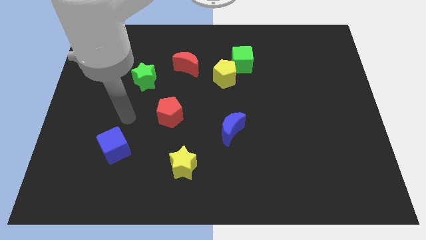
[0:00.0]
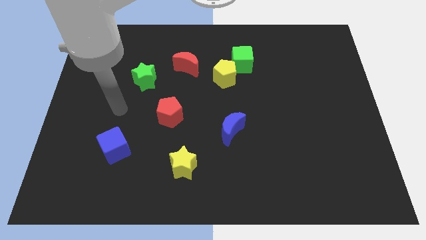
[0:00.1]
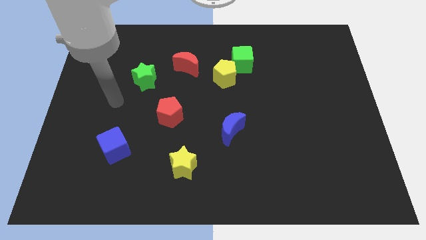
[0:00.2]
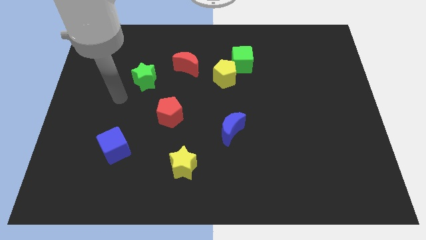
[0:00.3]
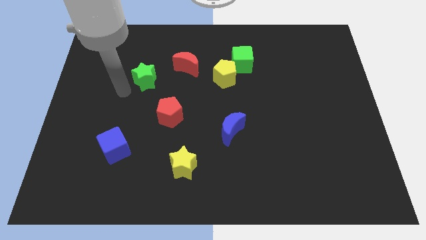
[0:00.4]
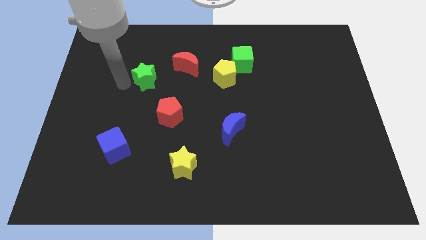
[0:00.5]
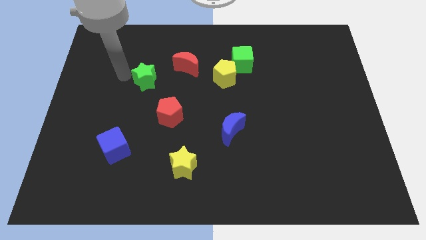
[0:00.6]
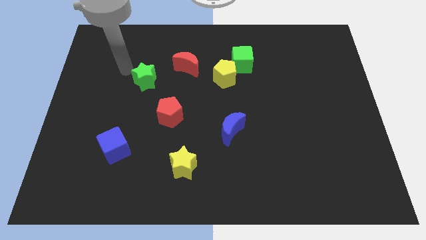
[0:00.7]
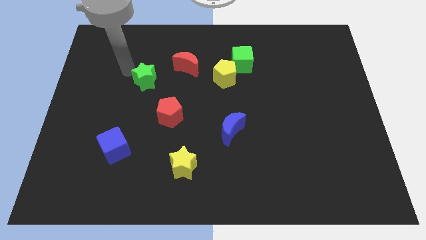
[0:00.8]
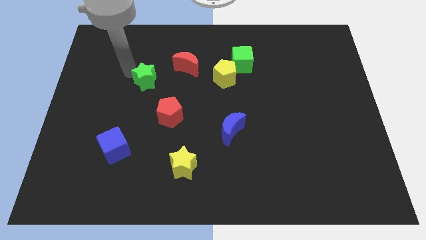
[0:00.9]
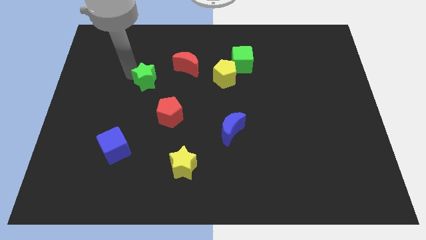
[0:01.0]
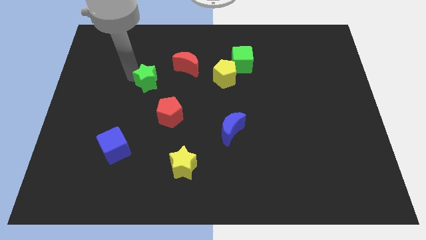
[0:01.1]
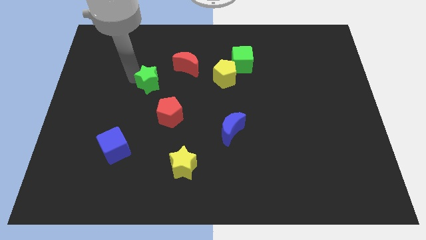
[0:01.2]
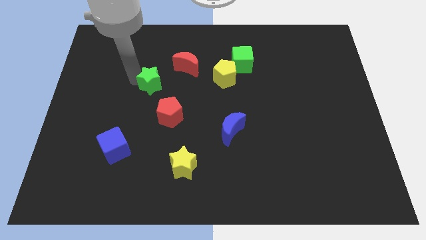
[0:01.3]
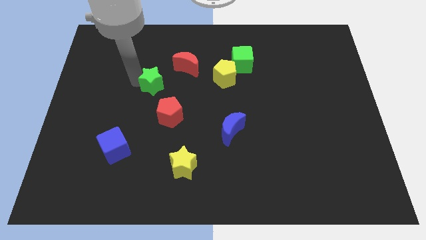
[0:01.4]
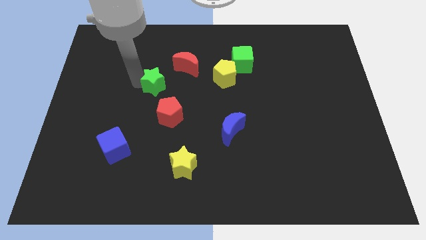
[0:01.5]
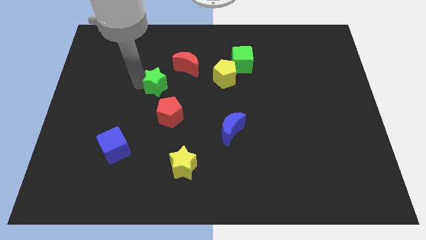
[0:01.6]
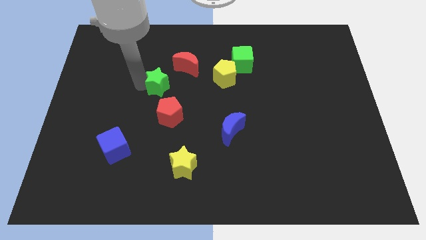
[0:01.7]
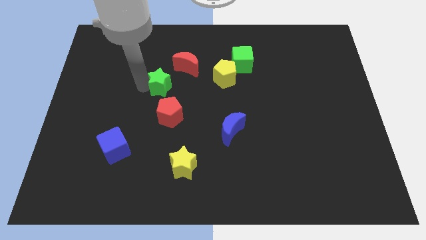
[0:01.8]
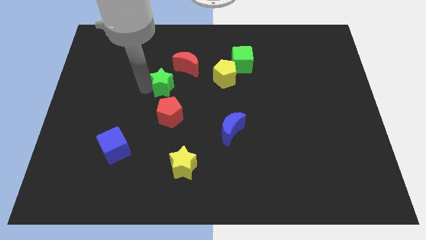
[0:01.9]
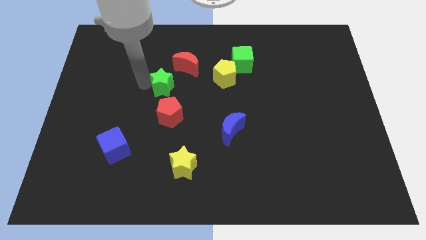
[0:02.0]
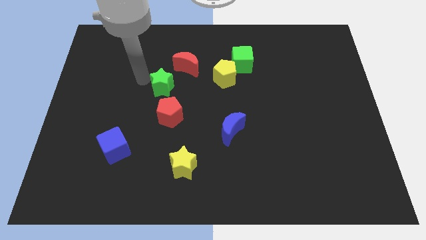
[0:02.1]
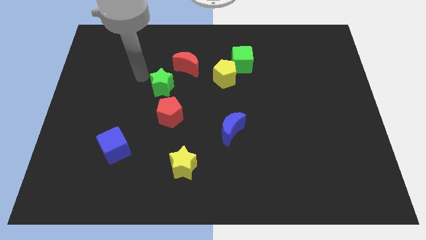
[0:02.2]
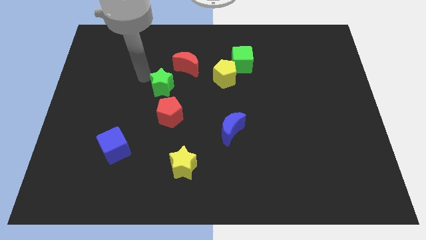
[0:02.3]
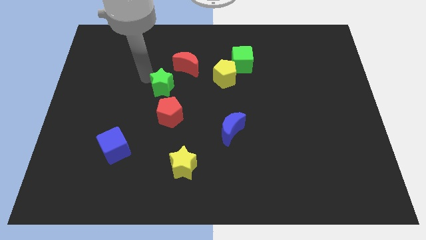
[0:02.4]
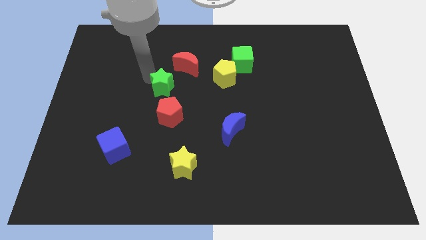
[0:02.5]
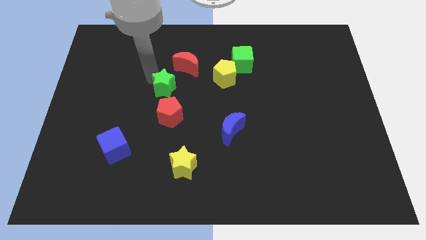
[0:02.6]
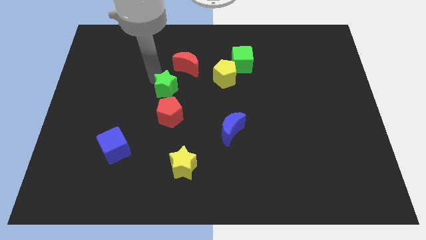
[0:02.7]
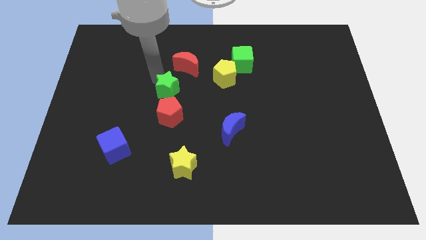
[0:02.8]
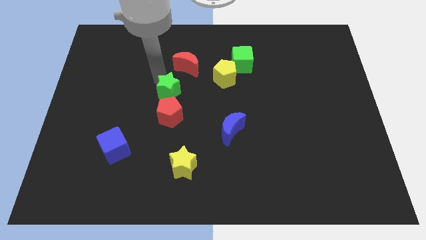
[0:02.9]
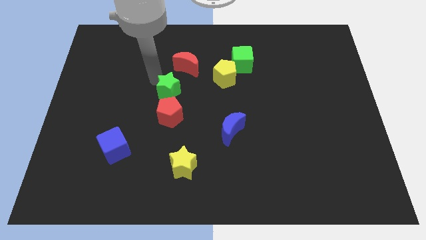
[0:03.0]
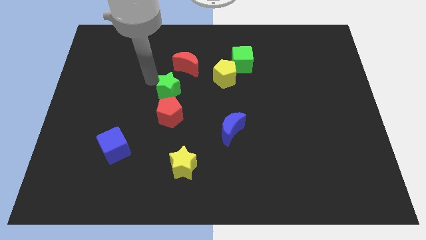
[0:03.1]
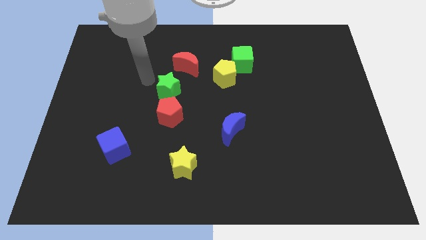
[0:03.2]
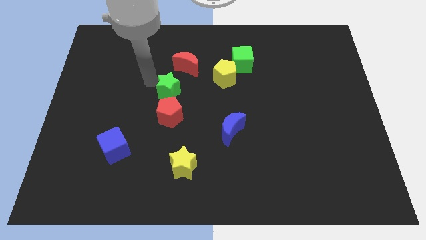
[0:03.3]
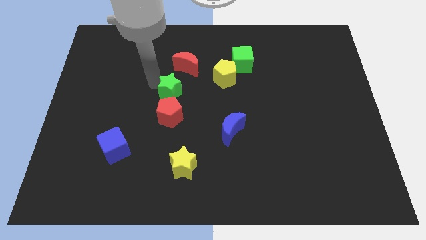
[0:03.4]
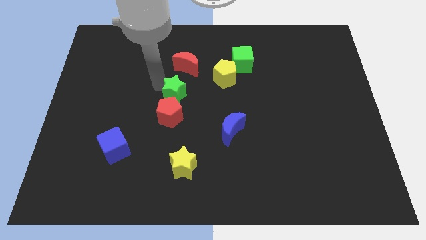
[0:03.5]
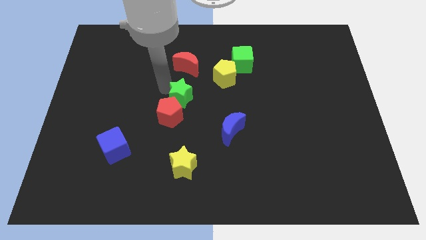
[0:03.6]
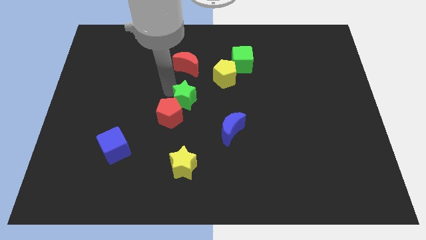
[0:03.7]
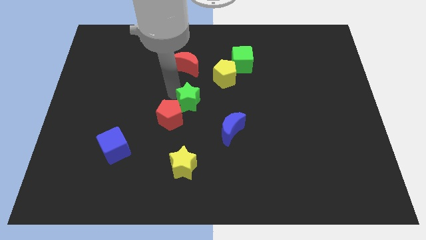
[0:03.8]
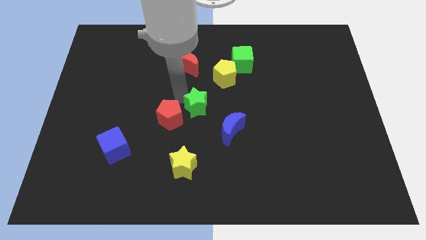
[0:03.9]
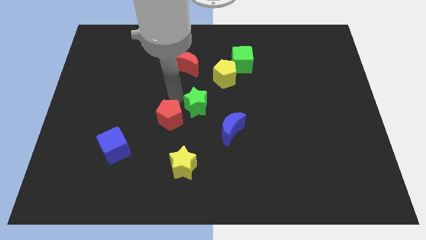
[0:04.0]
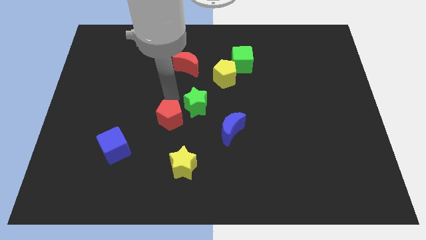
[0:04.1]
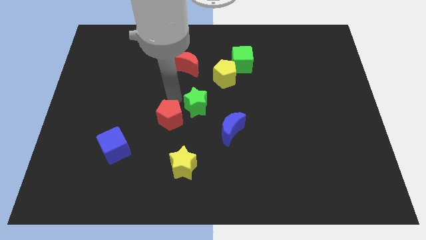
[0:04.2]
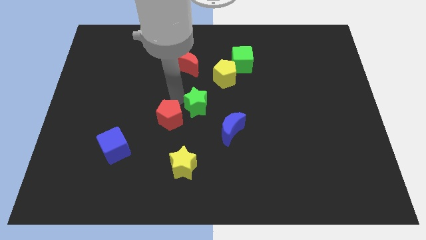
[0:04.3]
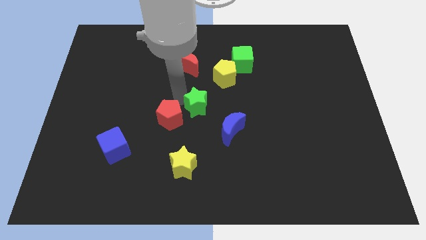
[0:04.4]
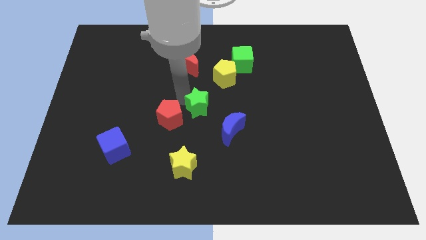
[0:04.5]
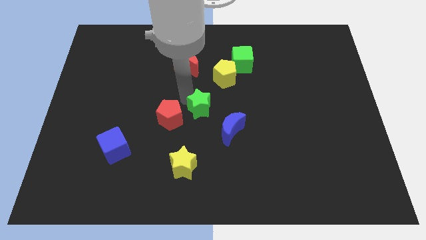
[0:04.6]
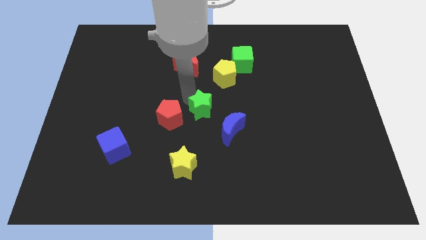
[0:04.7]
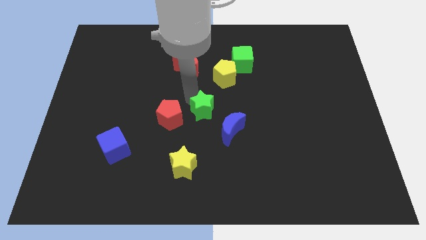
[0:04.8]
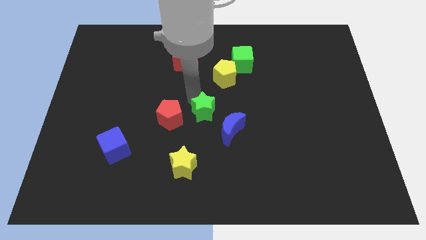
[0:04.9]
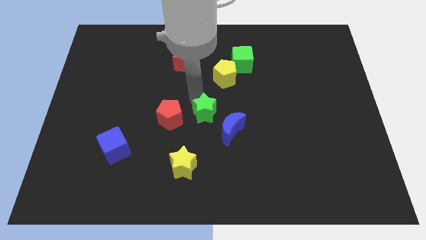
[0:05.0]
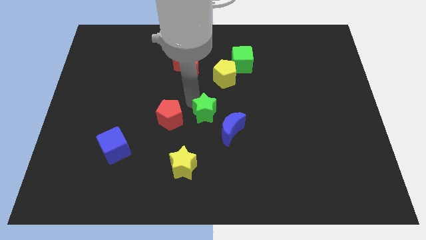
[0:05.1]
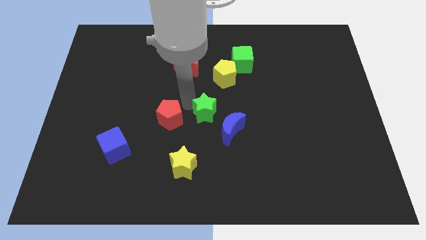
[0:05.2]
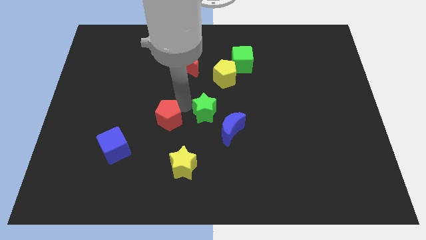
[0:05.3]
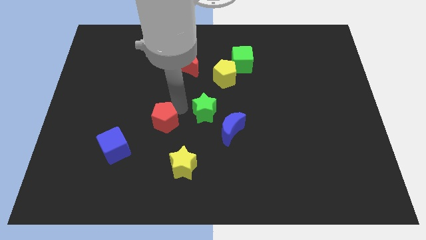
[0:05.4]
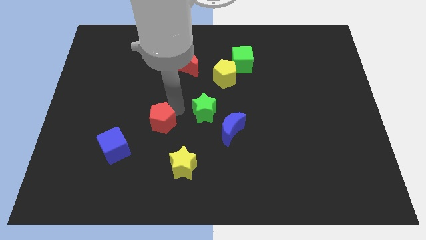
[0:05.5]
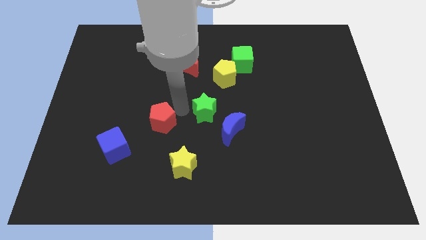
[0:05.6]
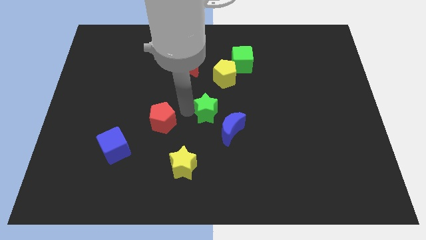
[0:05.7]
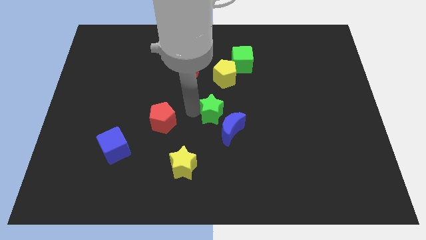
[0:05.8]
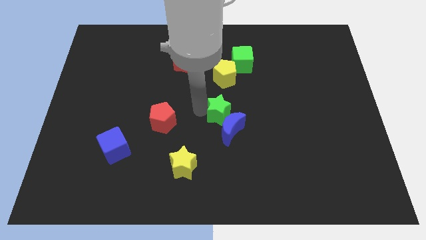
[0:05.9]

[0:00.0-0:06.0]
put the green star towards the blue moon

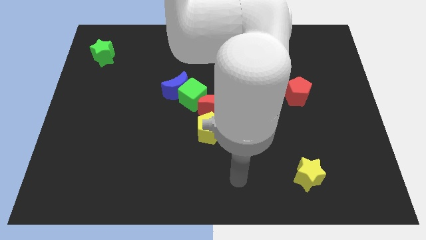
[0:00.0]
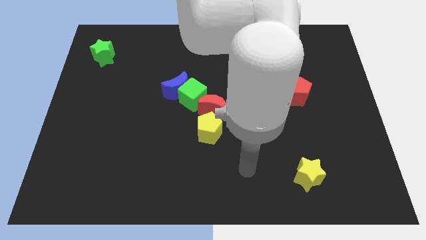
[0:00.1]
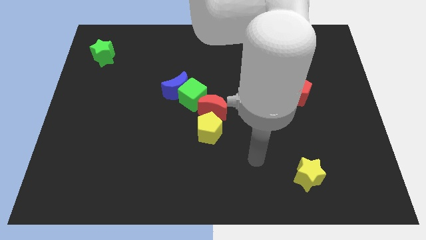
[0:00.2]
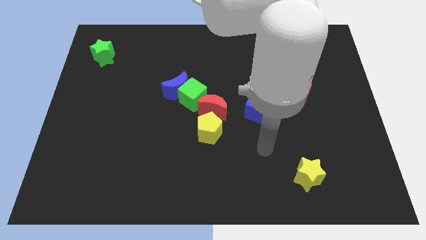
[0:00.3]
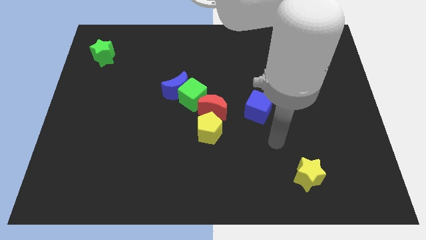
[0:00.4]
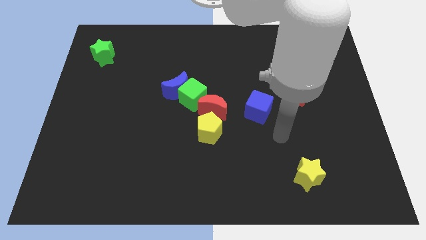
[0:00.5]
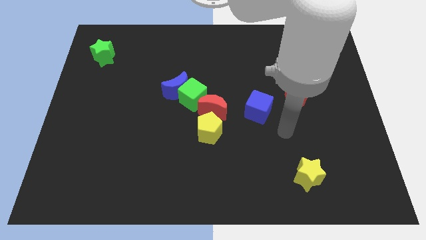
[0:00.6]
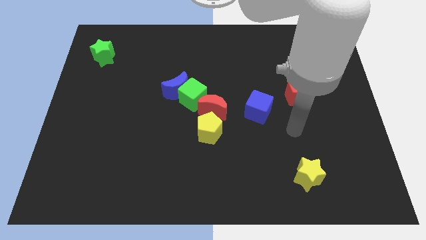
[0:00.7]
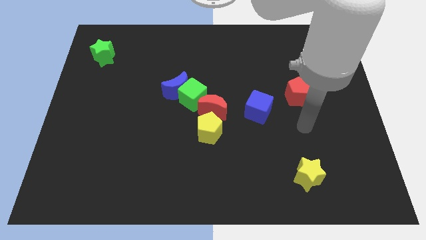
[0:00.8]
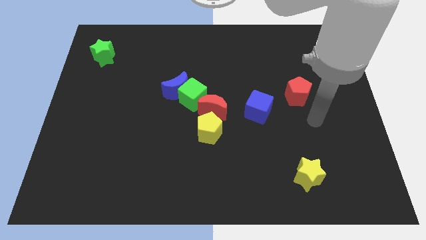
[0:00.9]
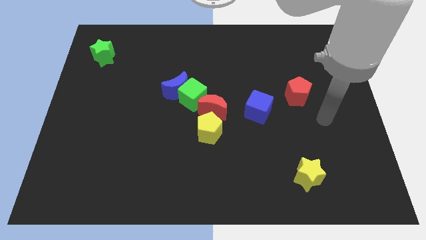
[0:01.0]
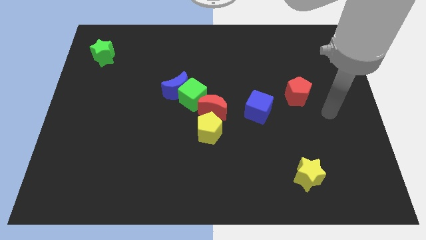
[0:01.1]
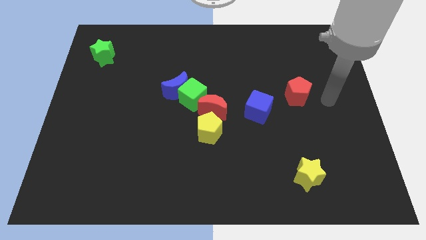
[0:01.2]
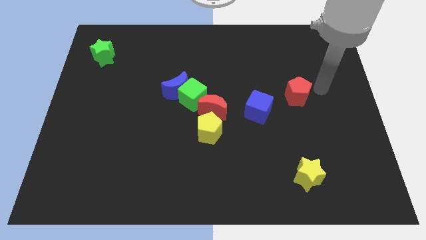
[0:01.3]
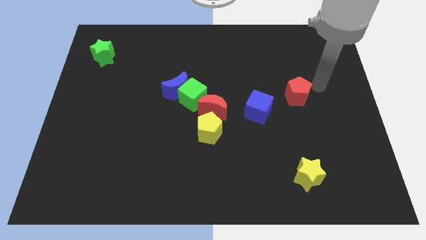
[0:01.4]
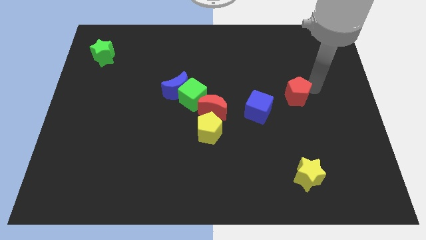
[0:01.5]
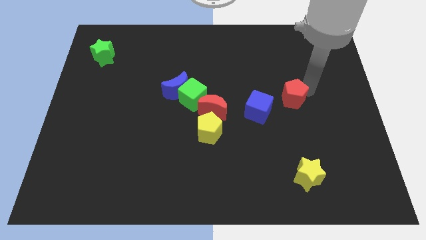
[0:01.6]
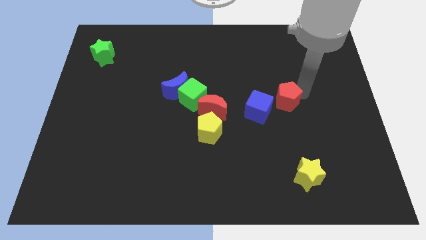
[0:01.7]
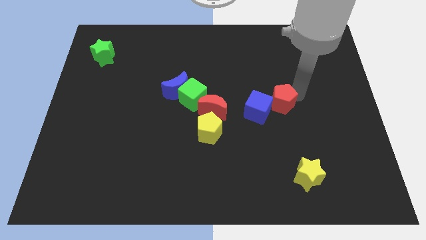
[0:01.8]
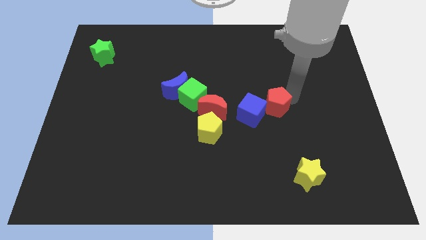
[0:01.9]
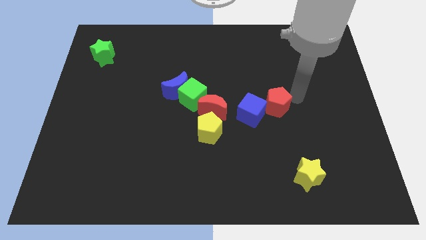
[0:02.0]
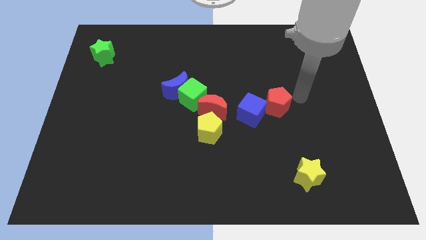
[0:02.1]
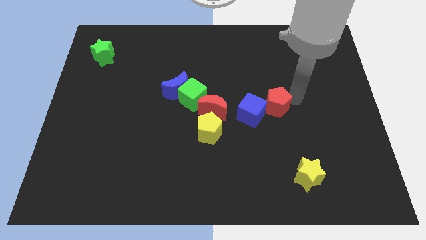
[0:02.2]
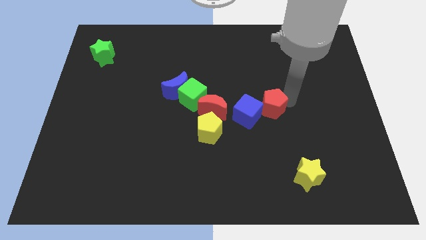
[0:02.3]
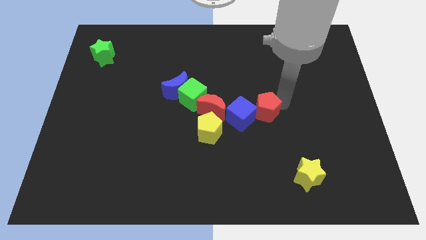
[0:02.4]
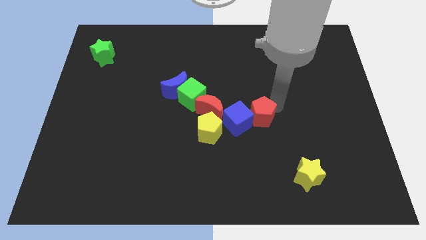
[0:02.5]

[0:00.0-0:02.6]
put the red pentagon next to the blue cube
